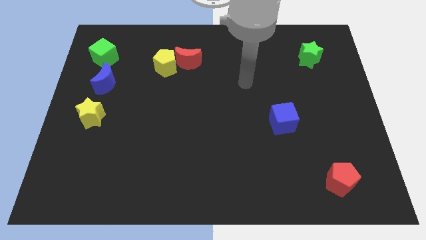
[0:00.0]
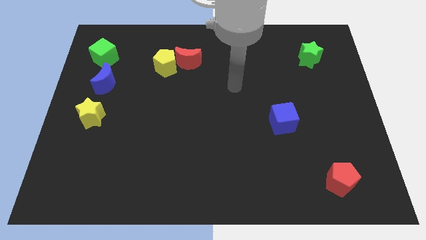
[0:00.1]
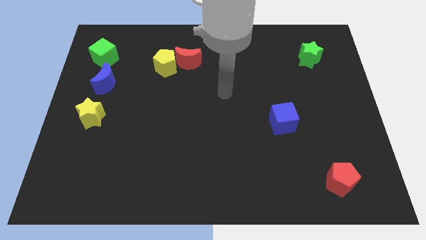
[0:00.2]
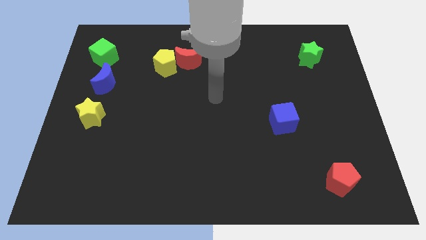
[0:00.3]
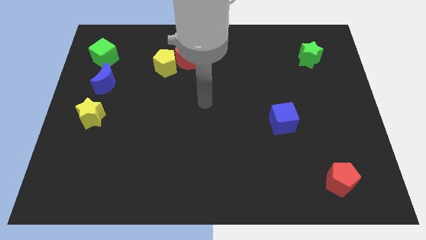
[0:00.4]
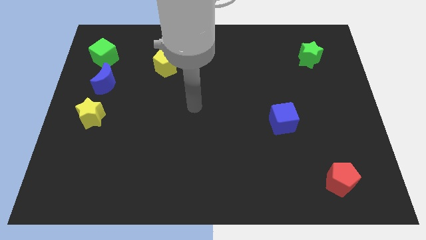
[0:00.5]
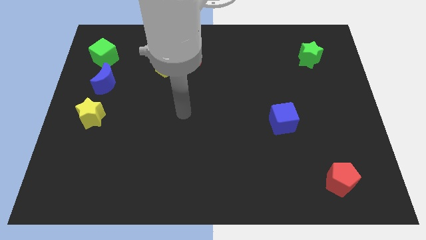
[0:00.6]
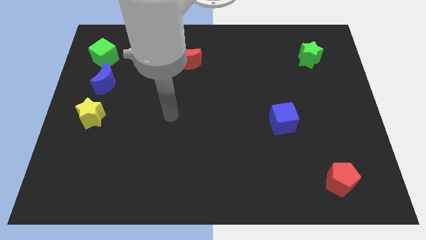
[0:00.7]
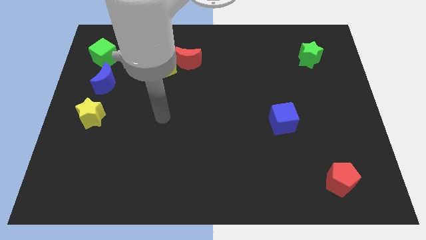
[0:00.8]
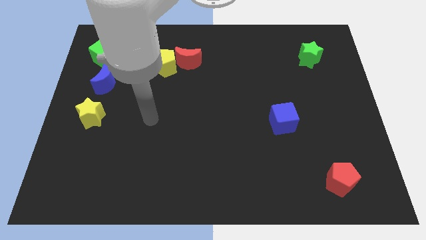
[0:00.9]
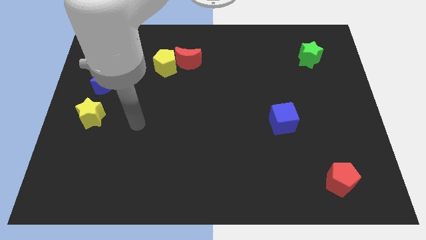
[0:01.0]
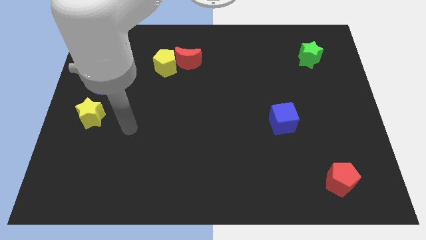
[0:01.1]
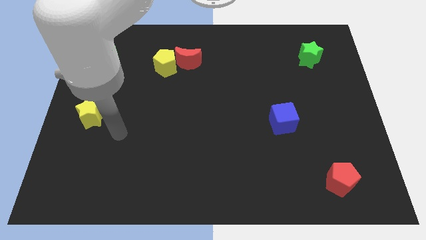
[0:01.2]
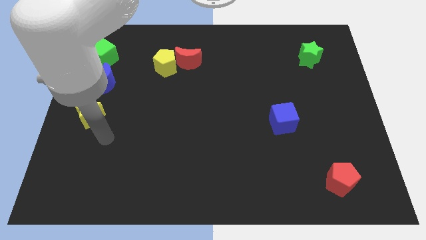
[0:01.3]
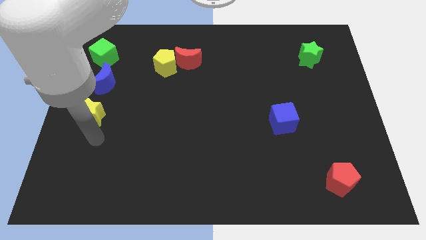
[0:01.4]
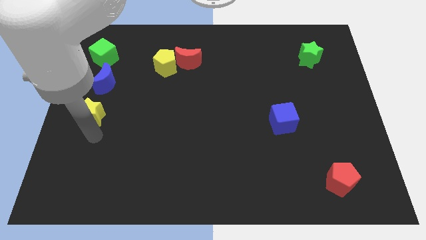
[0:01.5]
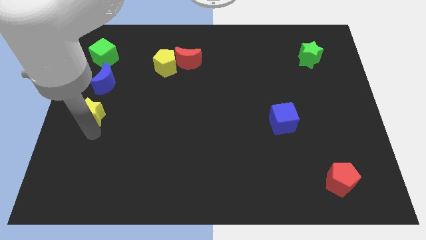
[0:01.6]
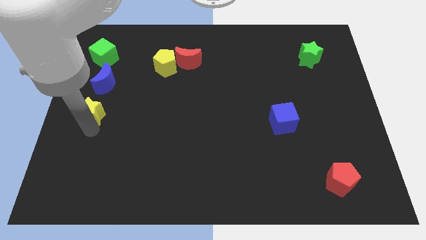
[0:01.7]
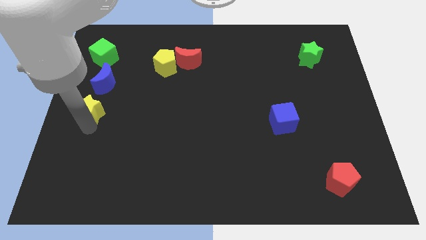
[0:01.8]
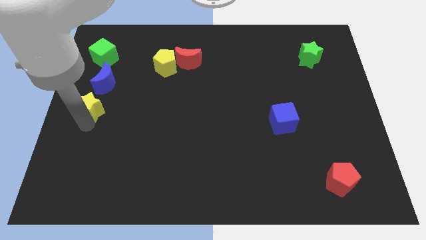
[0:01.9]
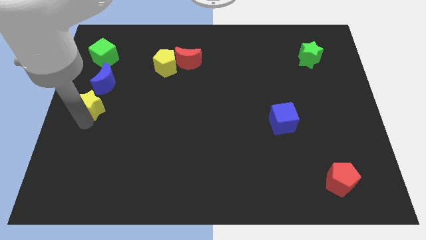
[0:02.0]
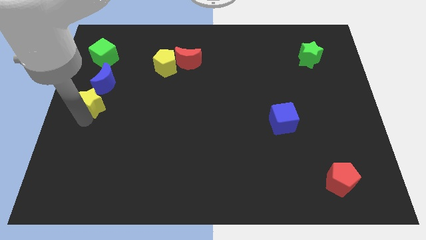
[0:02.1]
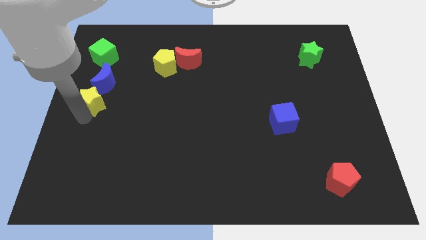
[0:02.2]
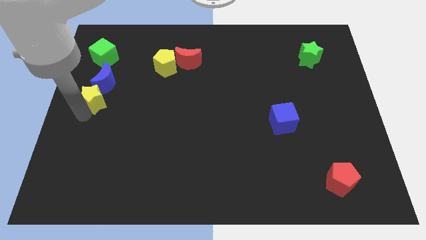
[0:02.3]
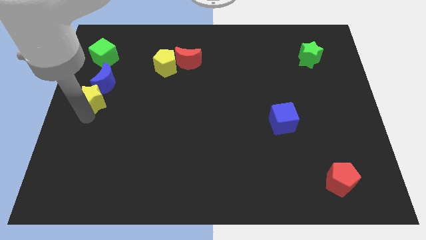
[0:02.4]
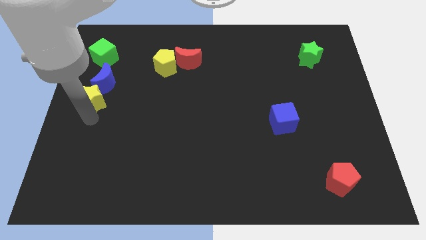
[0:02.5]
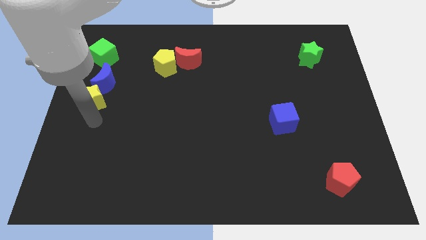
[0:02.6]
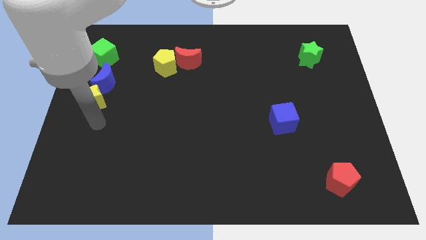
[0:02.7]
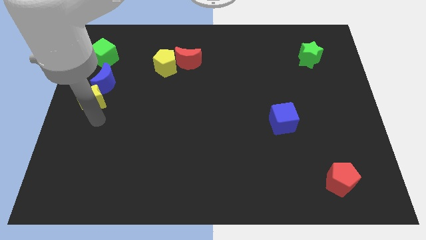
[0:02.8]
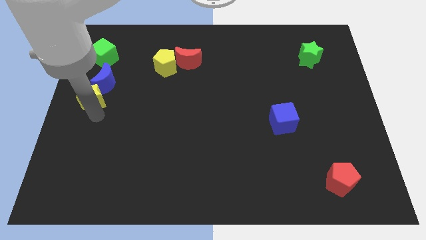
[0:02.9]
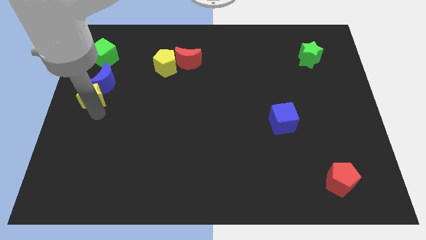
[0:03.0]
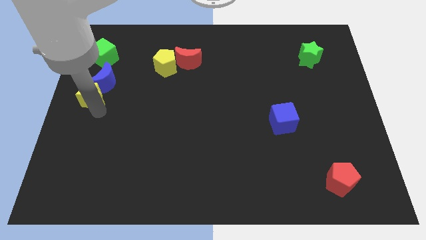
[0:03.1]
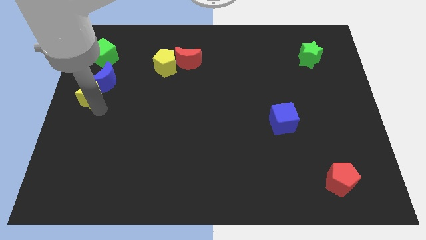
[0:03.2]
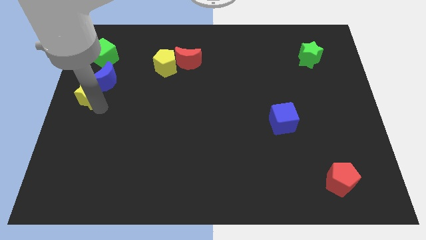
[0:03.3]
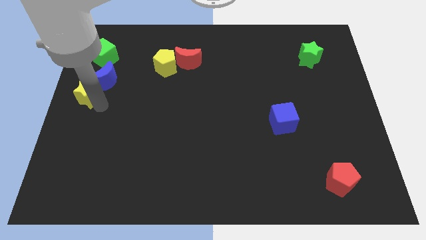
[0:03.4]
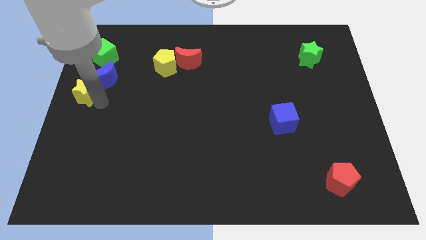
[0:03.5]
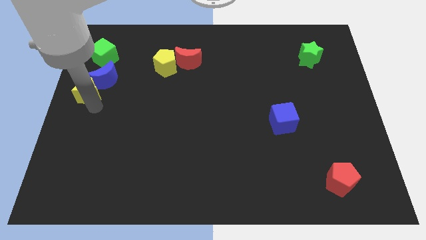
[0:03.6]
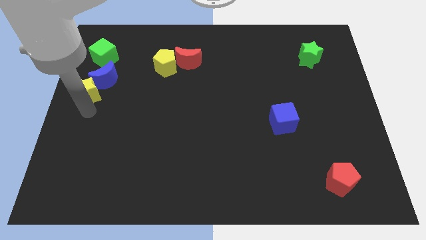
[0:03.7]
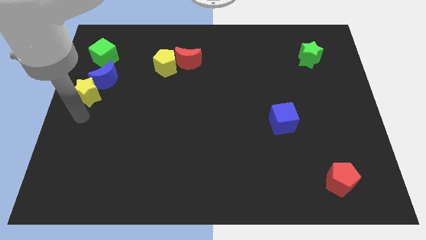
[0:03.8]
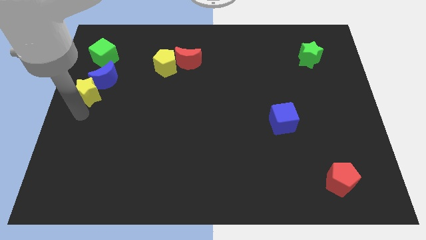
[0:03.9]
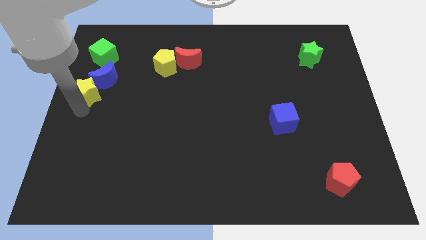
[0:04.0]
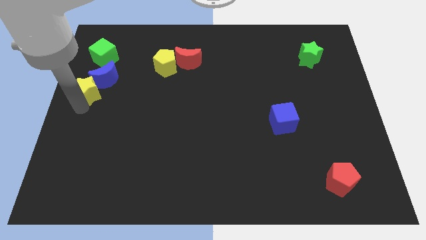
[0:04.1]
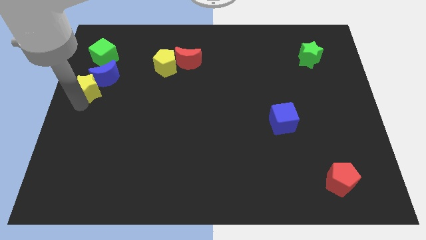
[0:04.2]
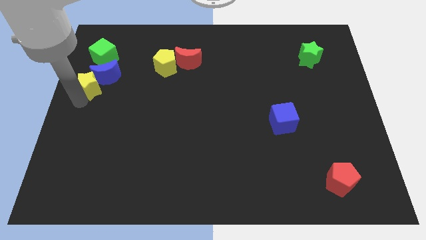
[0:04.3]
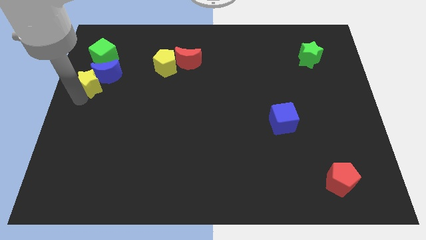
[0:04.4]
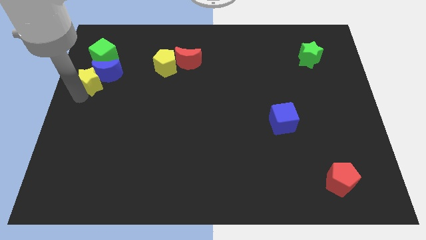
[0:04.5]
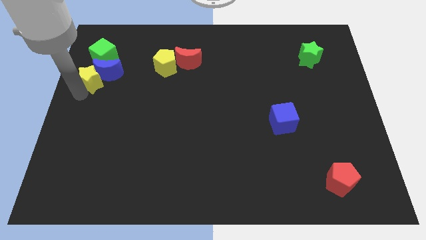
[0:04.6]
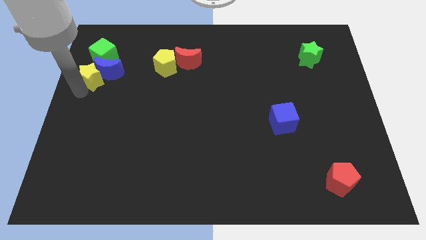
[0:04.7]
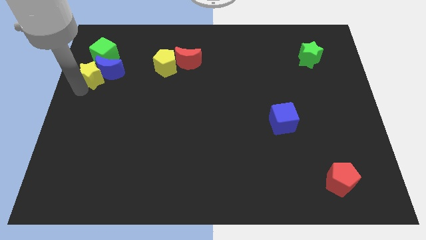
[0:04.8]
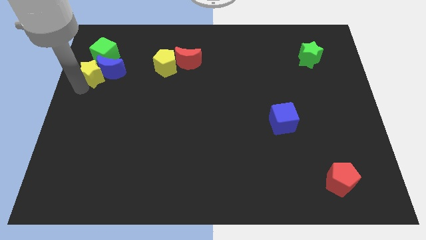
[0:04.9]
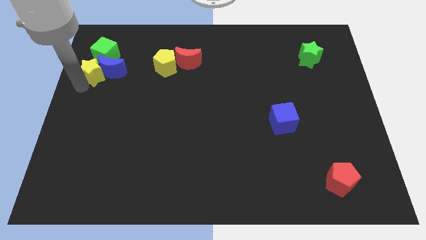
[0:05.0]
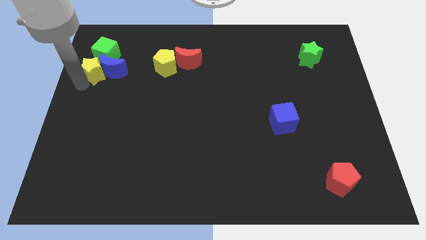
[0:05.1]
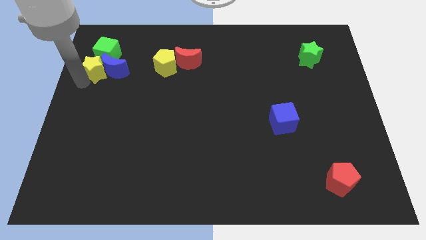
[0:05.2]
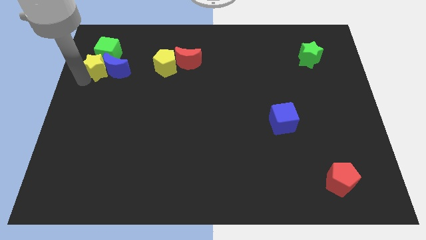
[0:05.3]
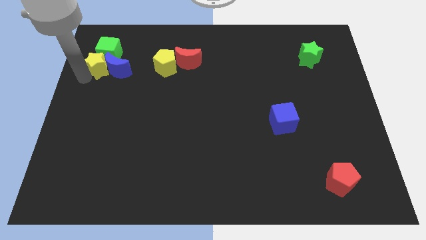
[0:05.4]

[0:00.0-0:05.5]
slide the yellow star towards the green cube

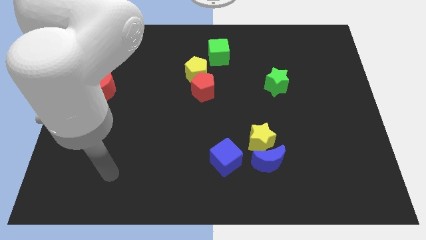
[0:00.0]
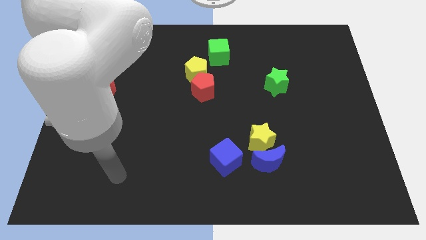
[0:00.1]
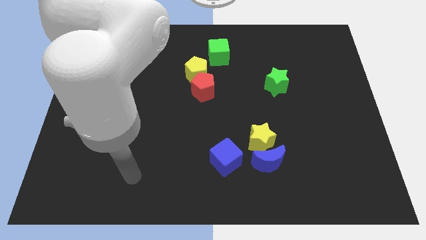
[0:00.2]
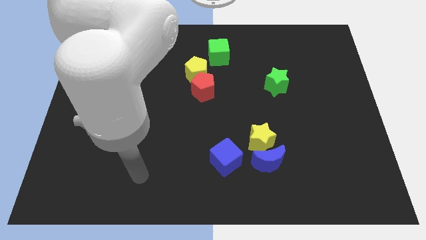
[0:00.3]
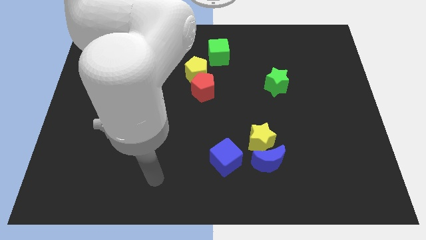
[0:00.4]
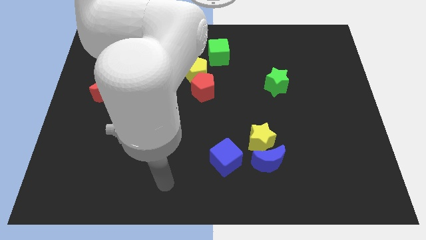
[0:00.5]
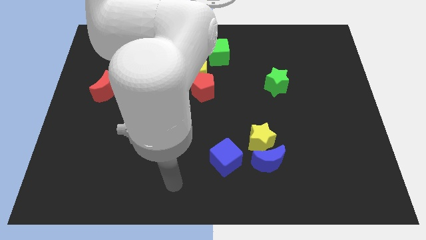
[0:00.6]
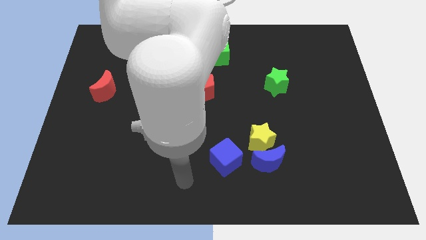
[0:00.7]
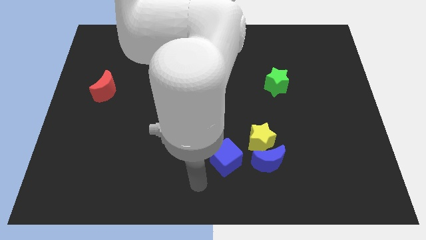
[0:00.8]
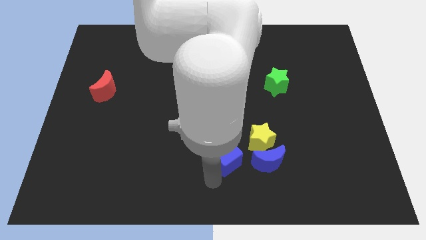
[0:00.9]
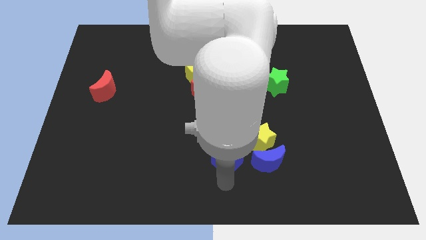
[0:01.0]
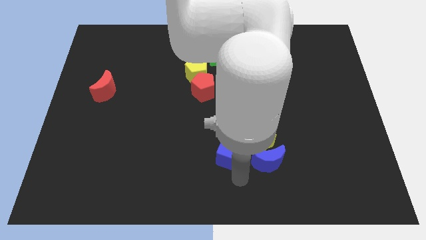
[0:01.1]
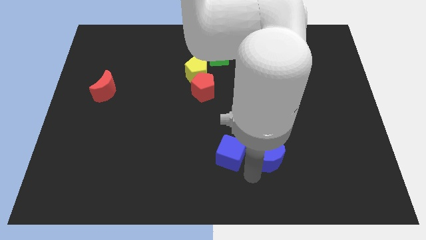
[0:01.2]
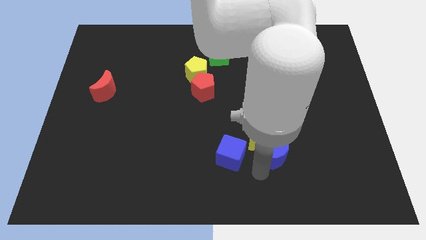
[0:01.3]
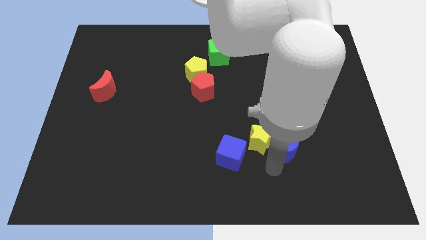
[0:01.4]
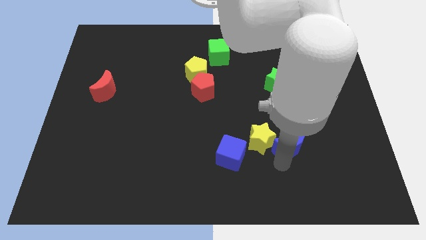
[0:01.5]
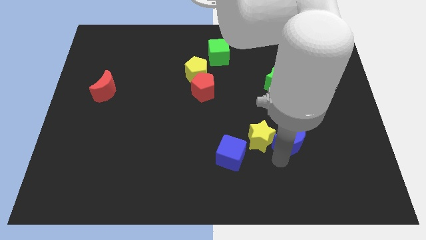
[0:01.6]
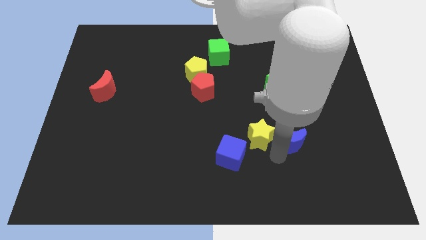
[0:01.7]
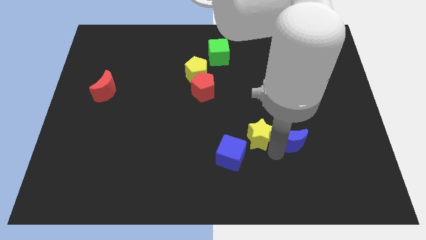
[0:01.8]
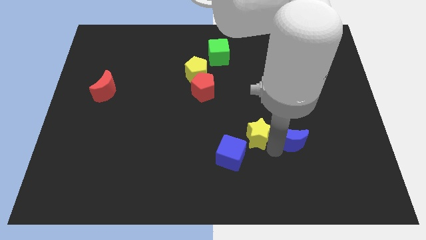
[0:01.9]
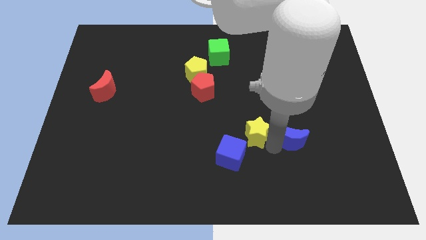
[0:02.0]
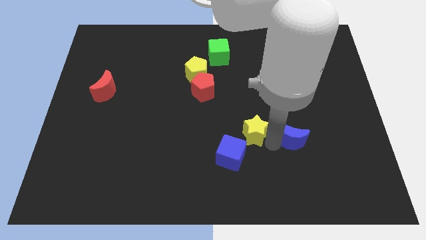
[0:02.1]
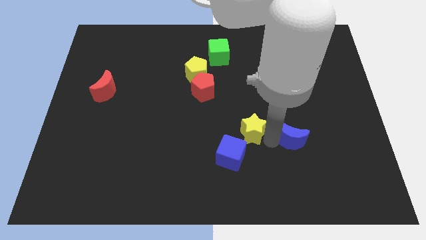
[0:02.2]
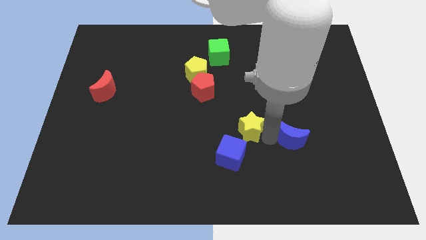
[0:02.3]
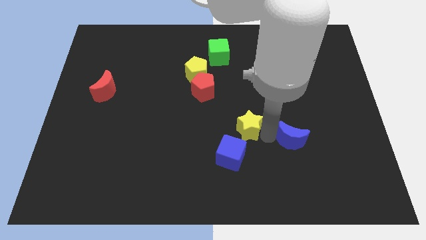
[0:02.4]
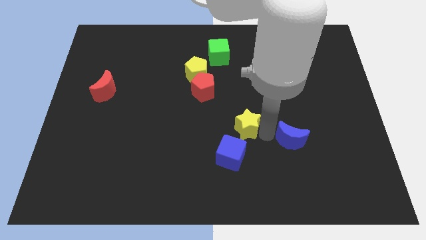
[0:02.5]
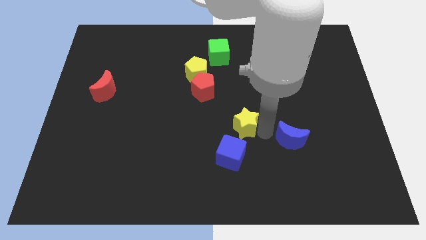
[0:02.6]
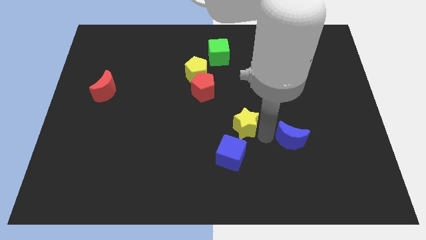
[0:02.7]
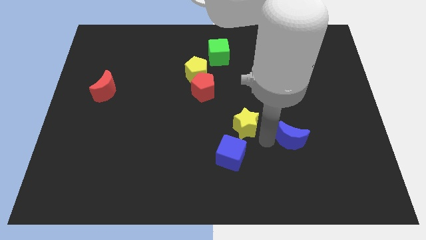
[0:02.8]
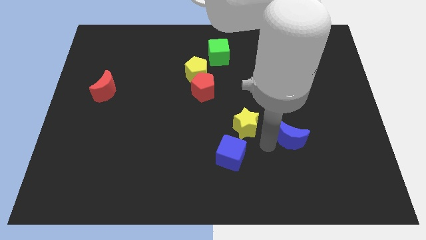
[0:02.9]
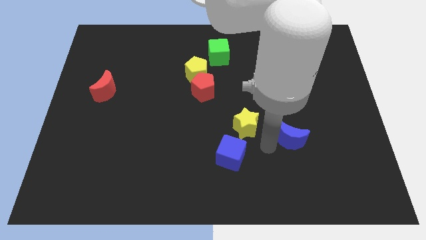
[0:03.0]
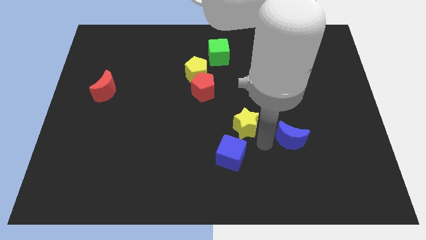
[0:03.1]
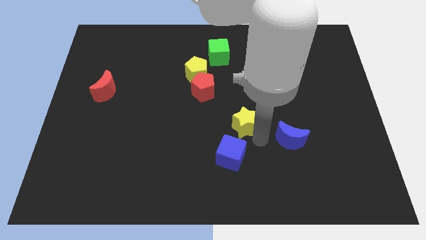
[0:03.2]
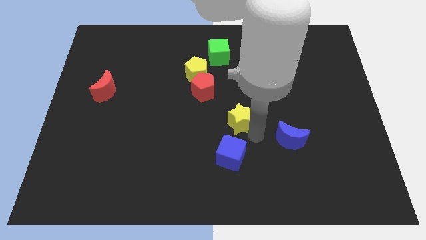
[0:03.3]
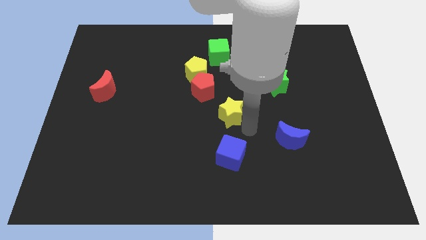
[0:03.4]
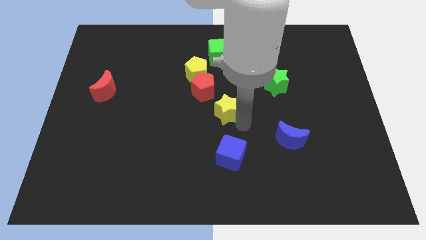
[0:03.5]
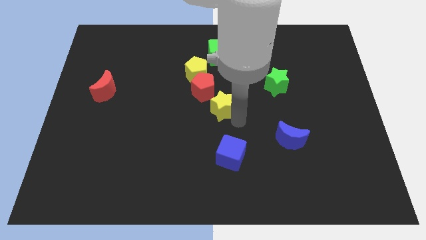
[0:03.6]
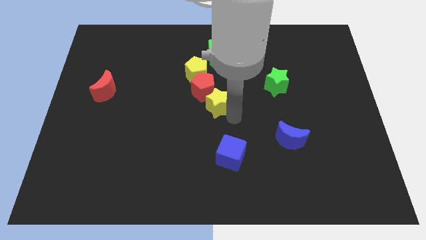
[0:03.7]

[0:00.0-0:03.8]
push the yellow star to the red pentagon
